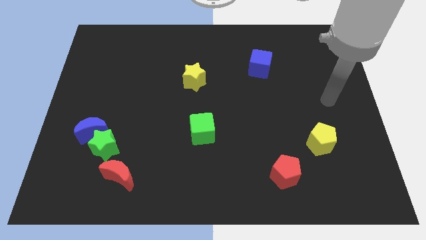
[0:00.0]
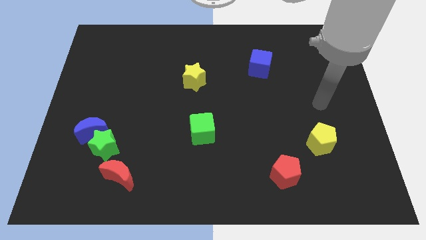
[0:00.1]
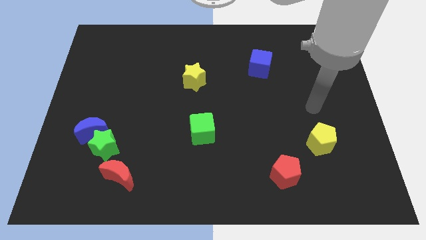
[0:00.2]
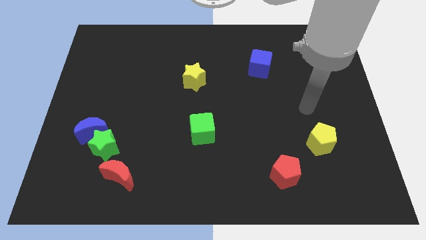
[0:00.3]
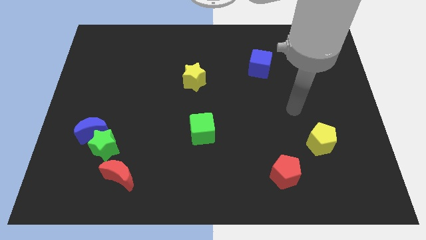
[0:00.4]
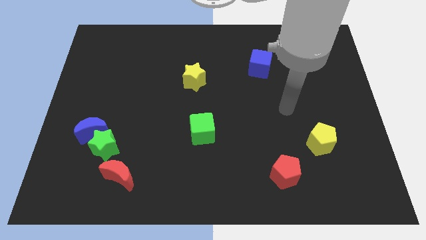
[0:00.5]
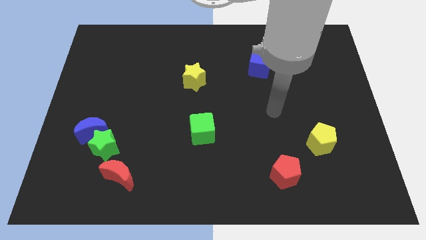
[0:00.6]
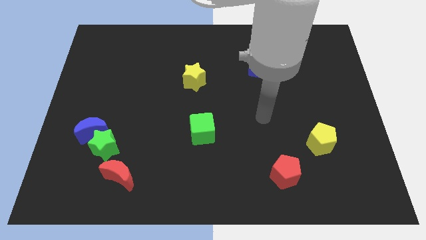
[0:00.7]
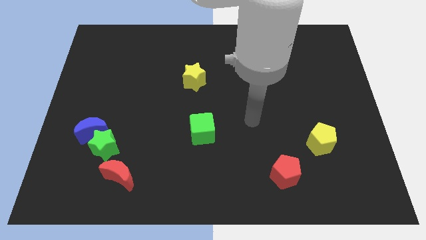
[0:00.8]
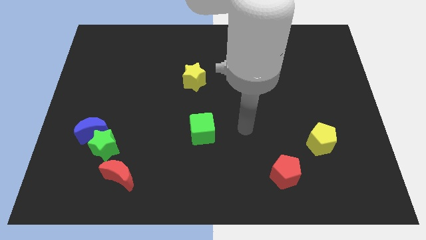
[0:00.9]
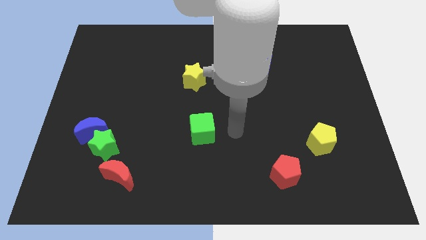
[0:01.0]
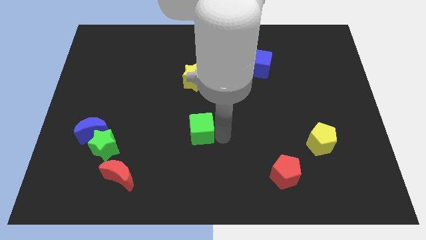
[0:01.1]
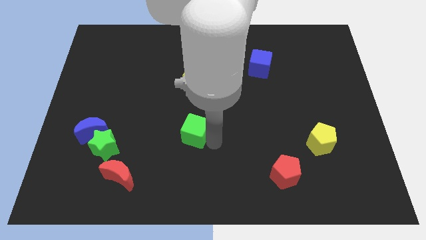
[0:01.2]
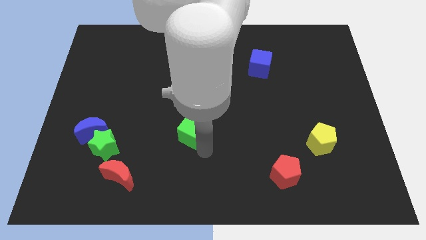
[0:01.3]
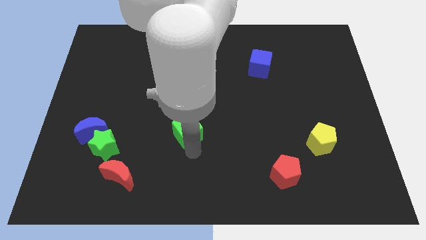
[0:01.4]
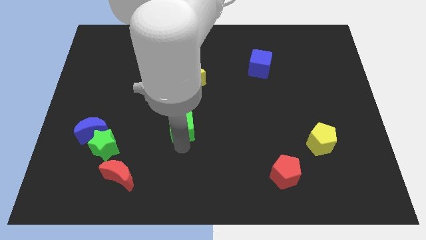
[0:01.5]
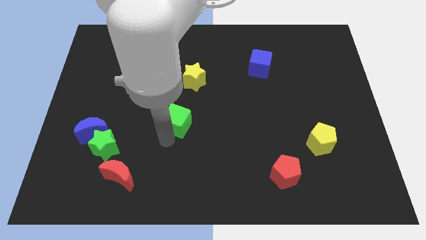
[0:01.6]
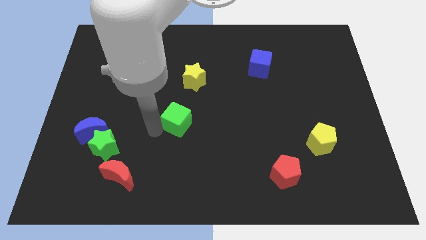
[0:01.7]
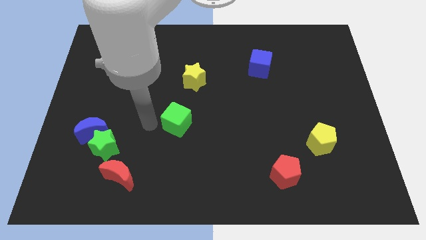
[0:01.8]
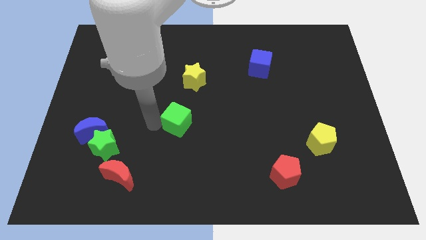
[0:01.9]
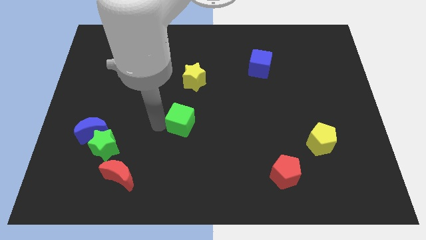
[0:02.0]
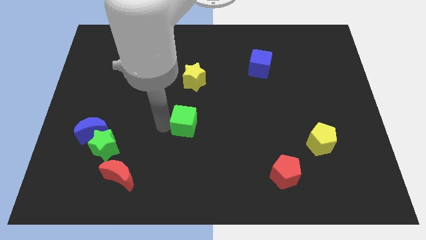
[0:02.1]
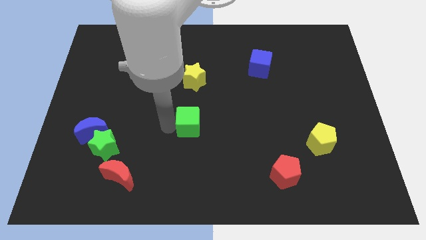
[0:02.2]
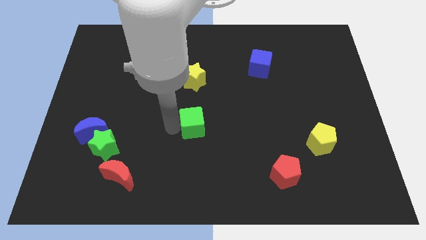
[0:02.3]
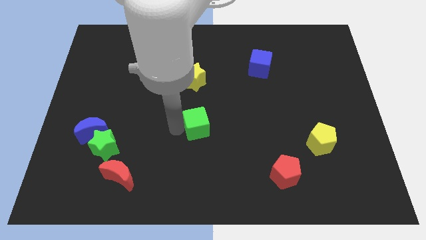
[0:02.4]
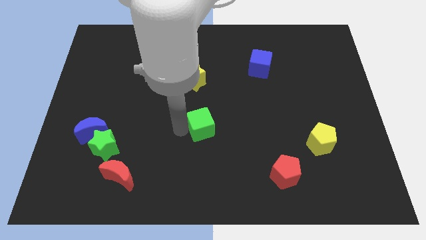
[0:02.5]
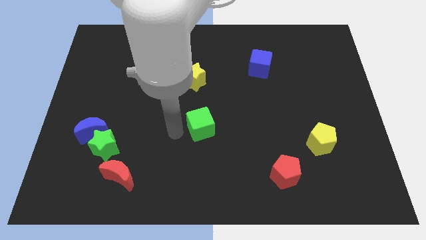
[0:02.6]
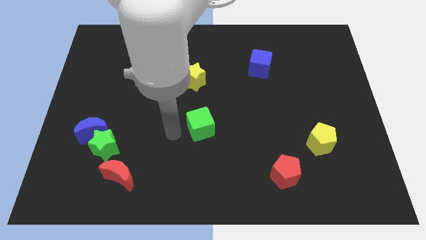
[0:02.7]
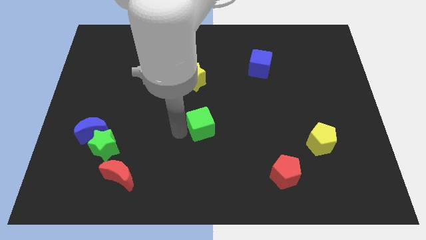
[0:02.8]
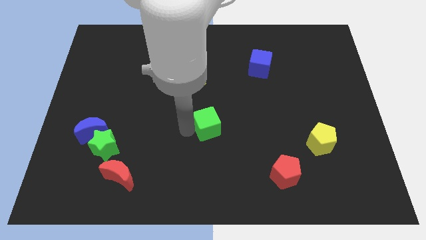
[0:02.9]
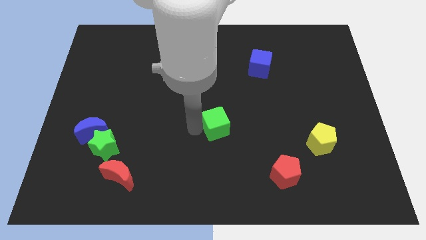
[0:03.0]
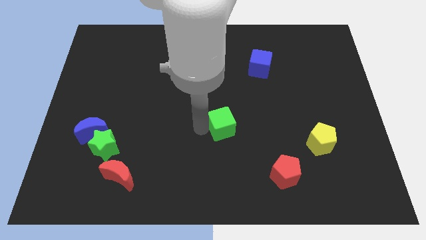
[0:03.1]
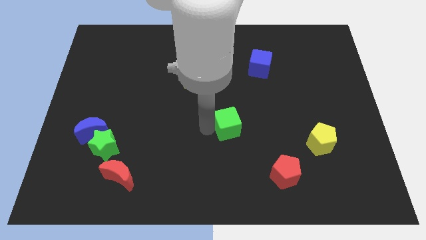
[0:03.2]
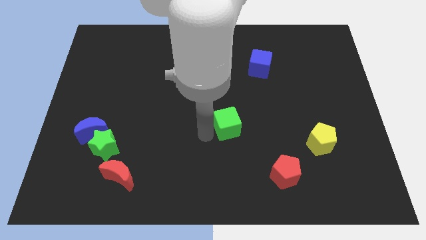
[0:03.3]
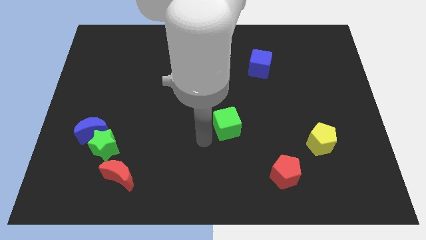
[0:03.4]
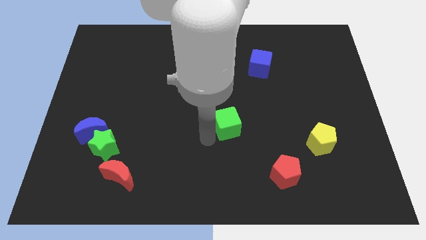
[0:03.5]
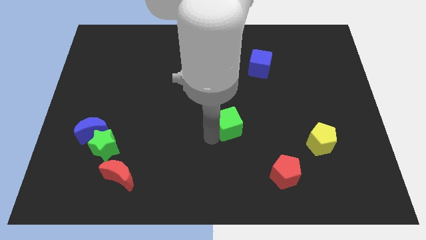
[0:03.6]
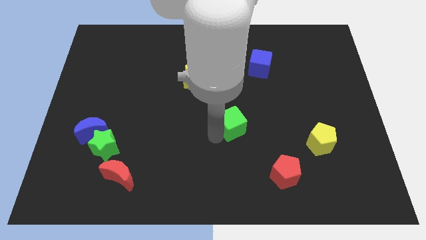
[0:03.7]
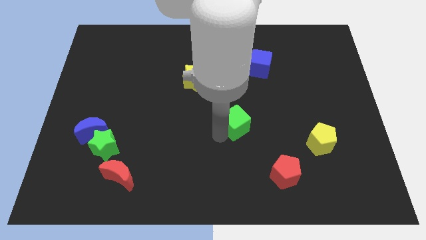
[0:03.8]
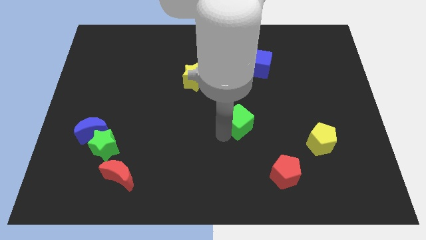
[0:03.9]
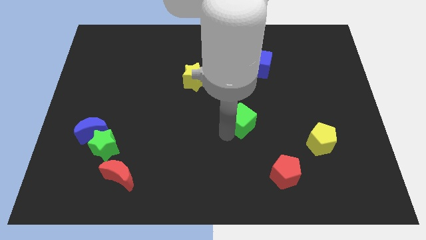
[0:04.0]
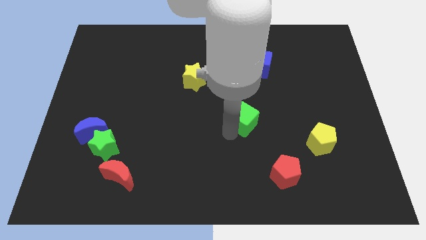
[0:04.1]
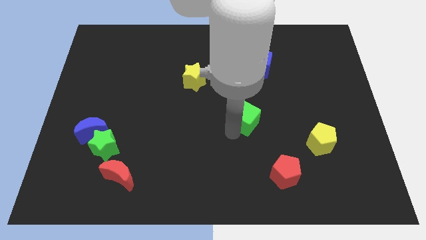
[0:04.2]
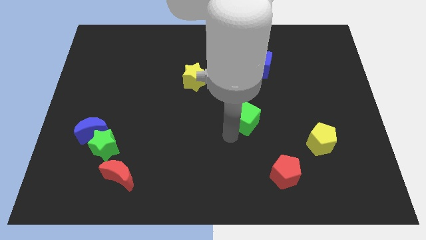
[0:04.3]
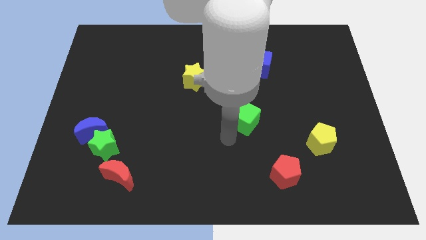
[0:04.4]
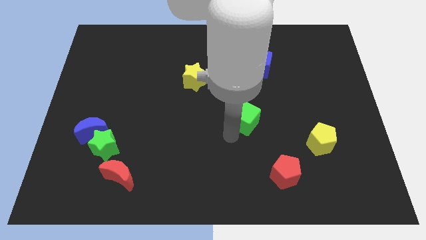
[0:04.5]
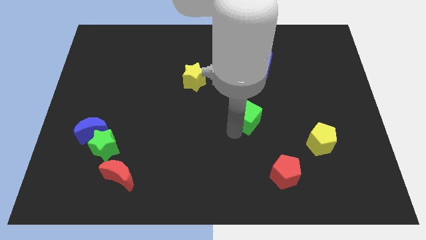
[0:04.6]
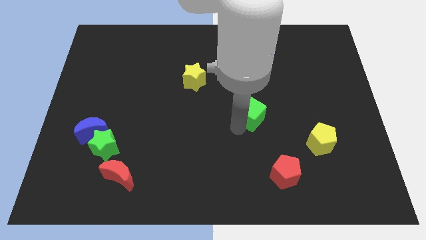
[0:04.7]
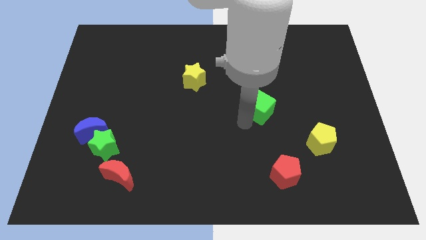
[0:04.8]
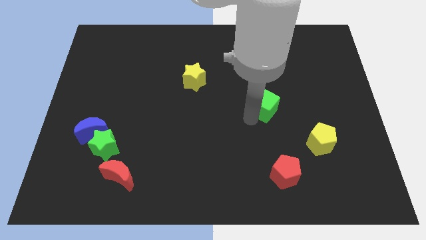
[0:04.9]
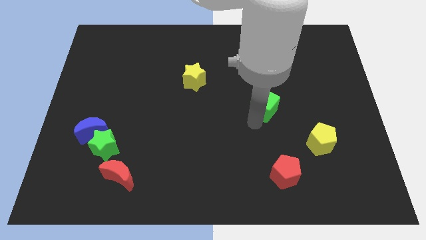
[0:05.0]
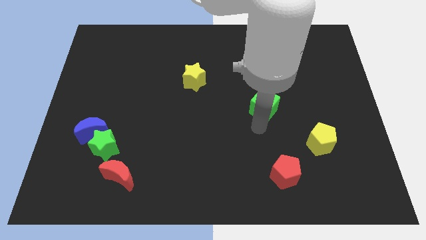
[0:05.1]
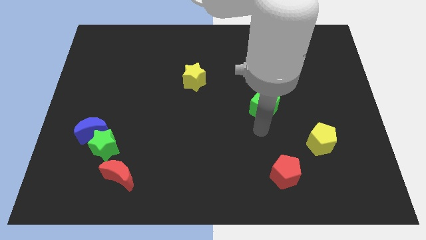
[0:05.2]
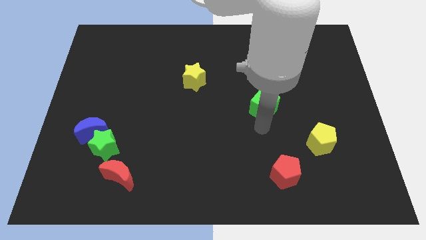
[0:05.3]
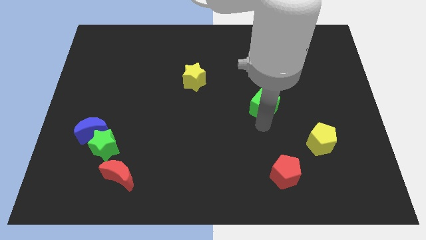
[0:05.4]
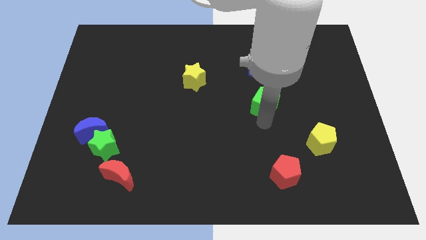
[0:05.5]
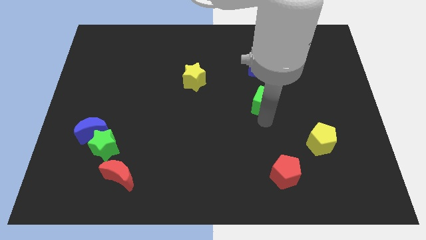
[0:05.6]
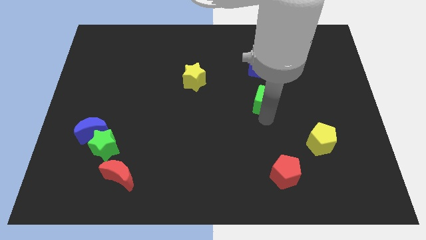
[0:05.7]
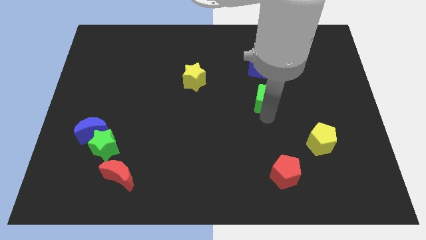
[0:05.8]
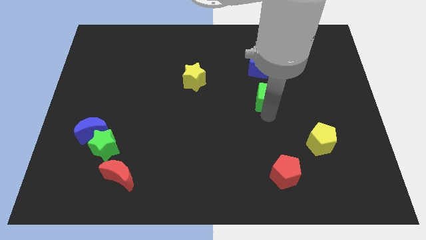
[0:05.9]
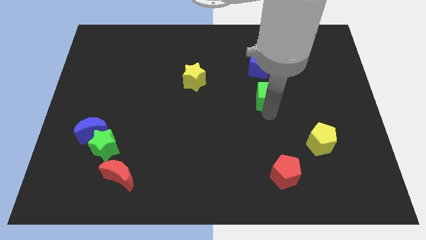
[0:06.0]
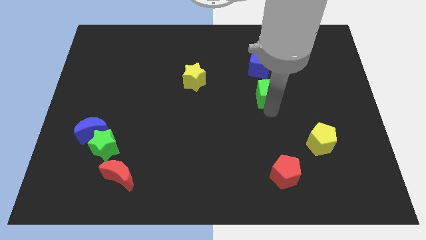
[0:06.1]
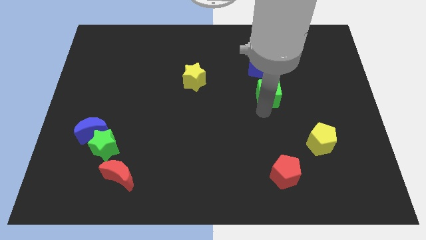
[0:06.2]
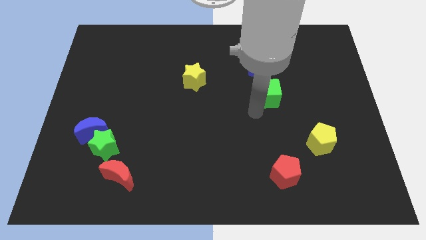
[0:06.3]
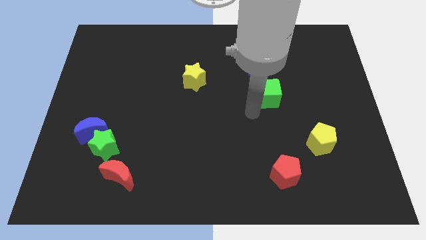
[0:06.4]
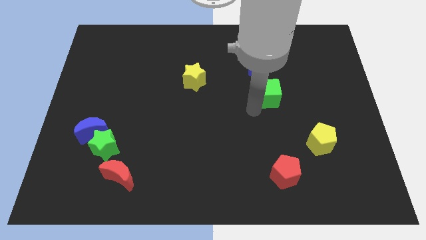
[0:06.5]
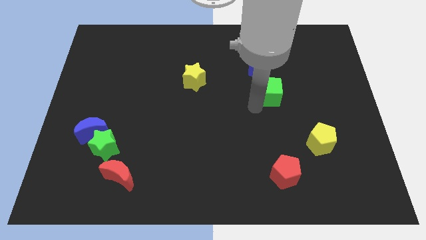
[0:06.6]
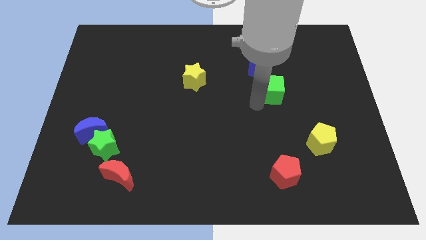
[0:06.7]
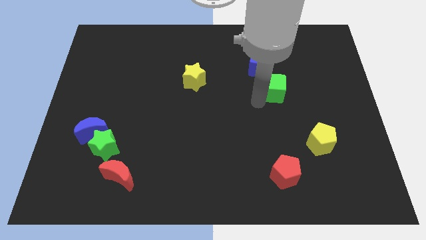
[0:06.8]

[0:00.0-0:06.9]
move the green cube diagonally upwards and right

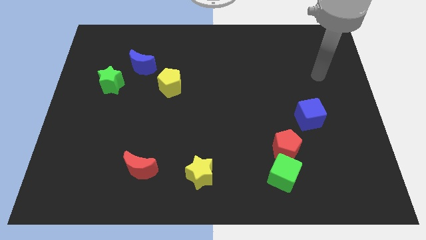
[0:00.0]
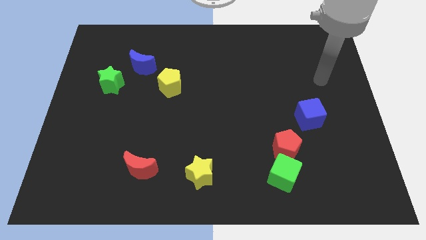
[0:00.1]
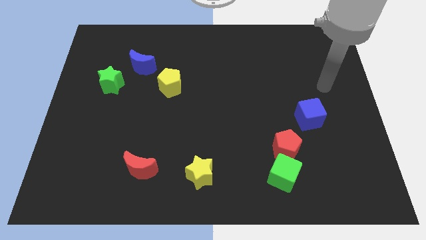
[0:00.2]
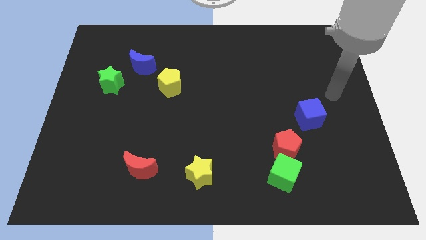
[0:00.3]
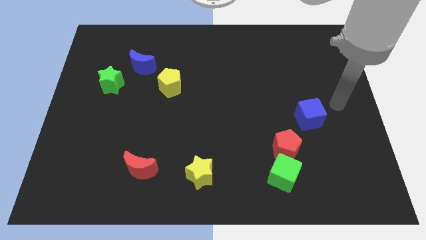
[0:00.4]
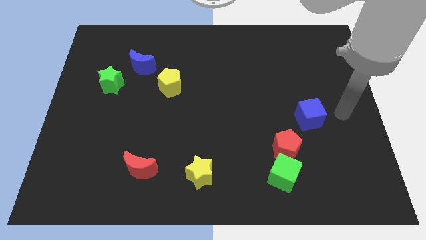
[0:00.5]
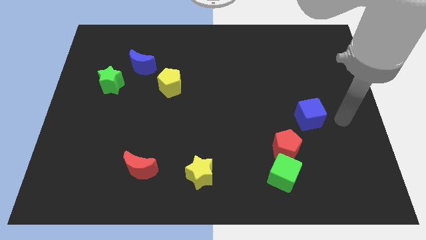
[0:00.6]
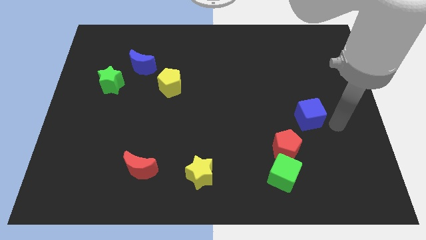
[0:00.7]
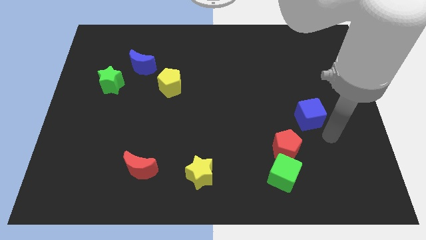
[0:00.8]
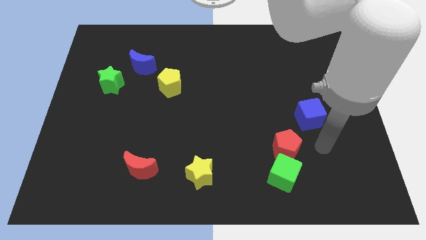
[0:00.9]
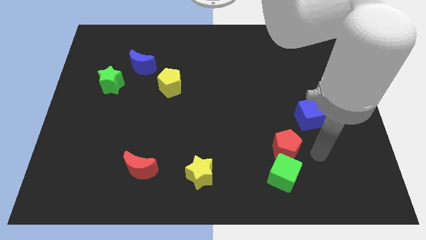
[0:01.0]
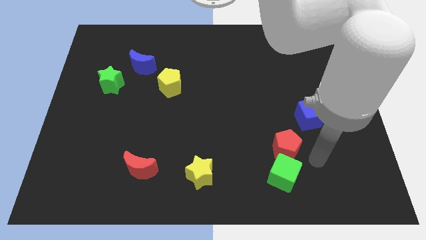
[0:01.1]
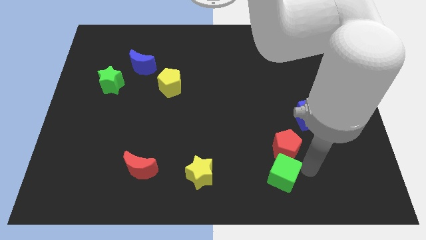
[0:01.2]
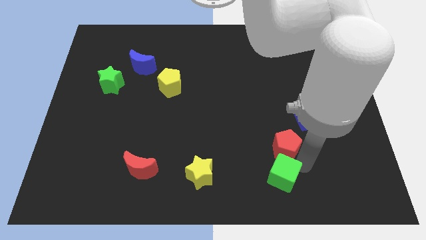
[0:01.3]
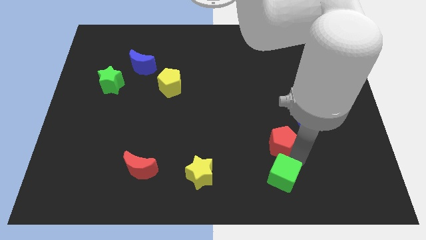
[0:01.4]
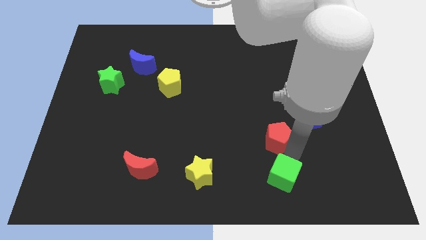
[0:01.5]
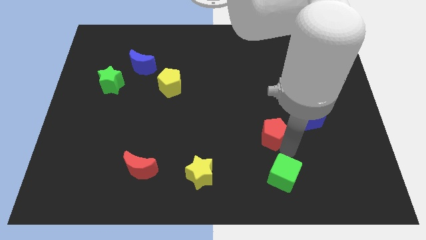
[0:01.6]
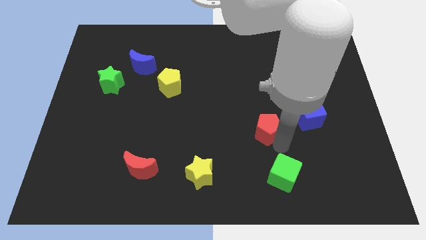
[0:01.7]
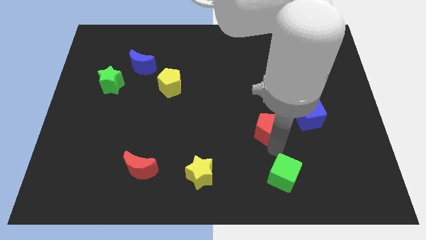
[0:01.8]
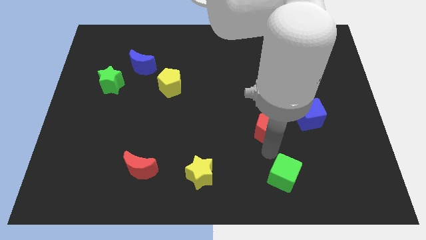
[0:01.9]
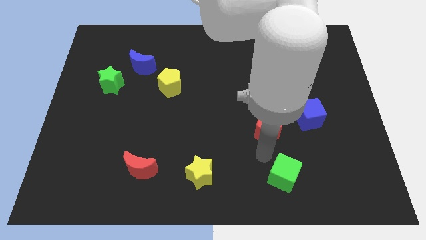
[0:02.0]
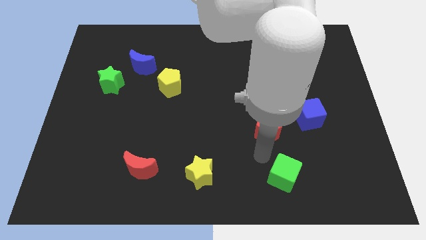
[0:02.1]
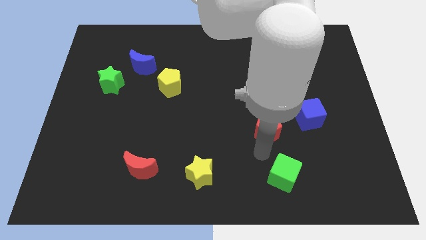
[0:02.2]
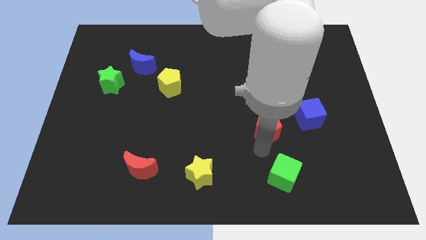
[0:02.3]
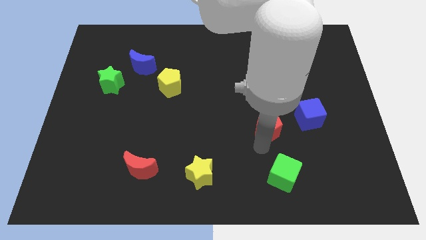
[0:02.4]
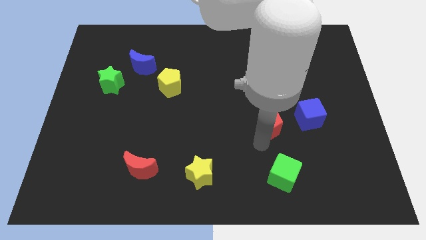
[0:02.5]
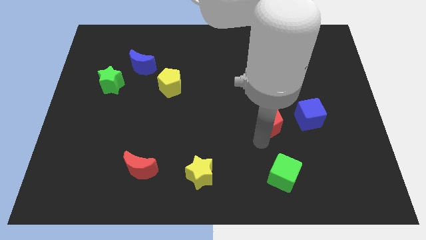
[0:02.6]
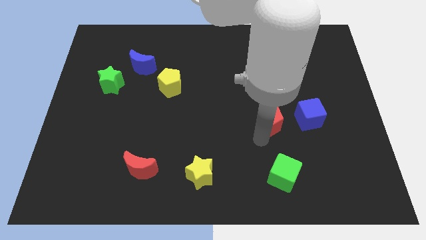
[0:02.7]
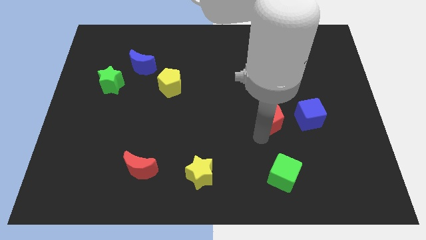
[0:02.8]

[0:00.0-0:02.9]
slide the red pentagon slightly upwards
